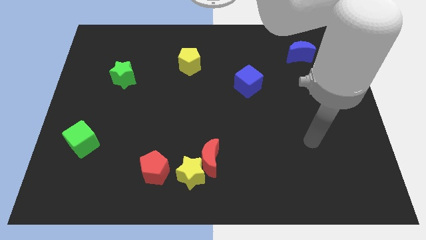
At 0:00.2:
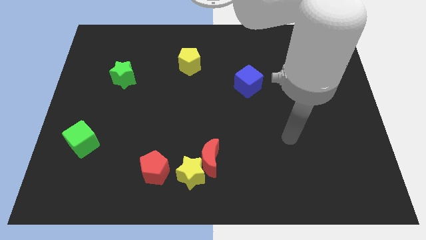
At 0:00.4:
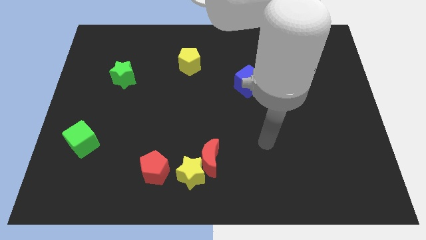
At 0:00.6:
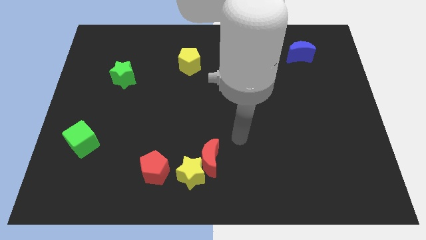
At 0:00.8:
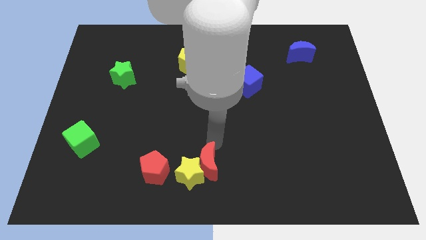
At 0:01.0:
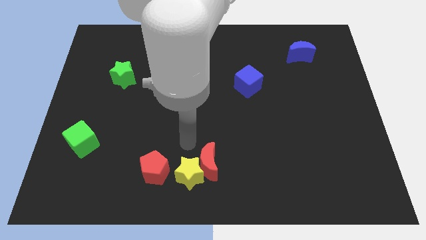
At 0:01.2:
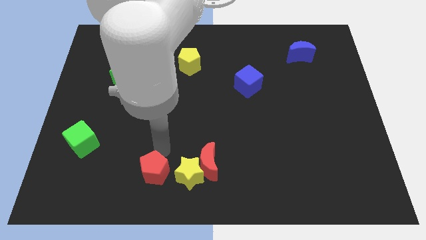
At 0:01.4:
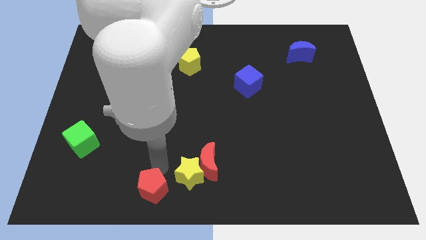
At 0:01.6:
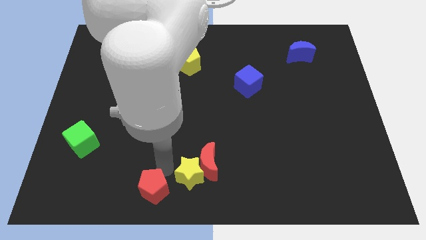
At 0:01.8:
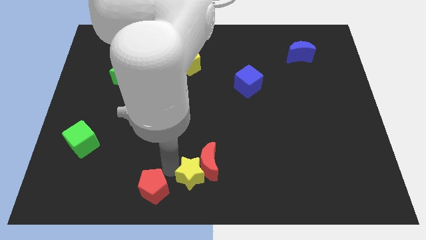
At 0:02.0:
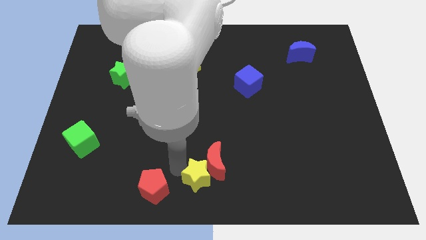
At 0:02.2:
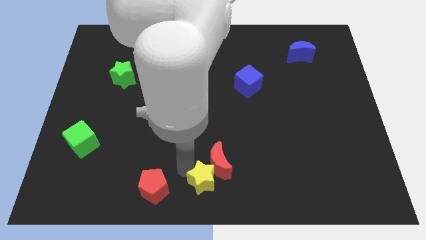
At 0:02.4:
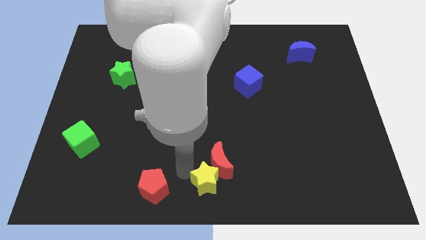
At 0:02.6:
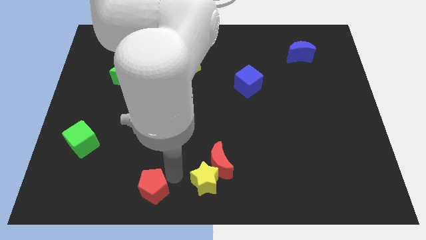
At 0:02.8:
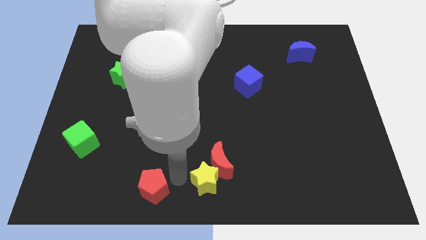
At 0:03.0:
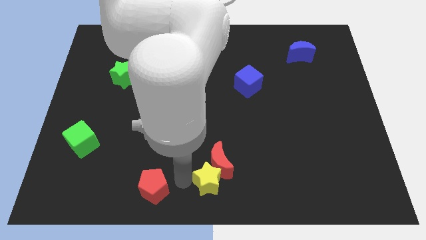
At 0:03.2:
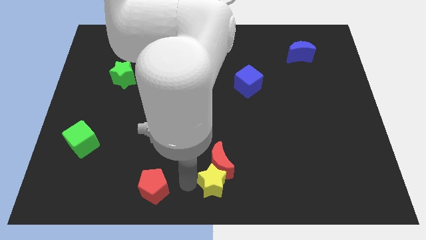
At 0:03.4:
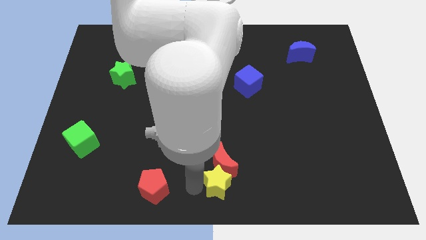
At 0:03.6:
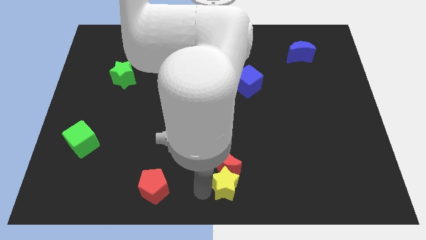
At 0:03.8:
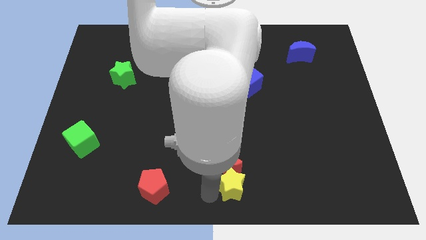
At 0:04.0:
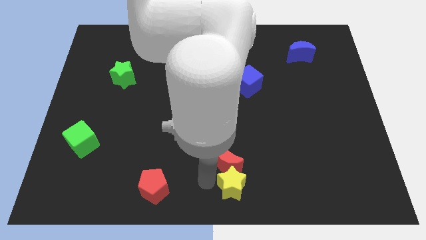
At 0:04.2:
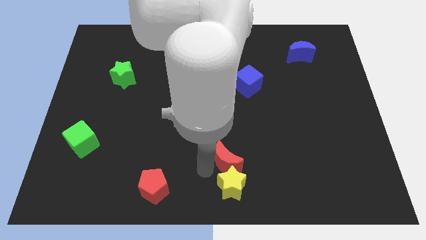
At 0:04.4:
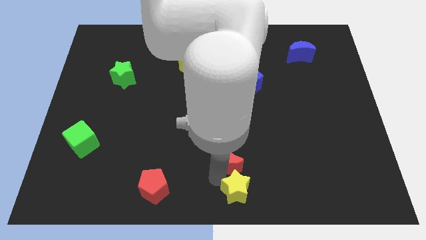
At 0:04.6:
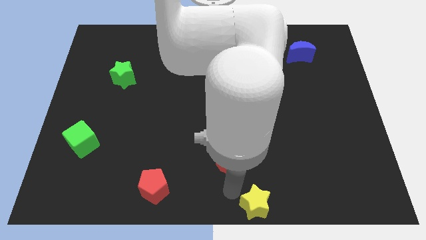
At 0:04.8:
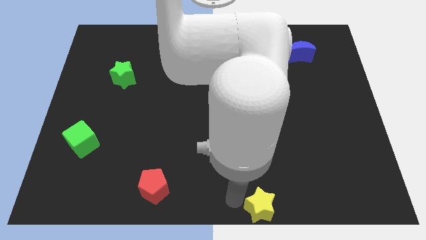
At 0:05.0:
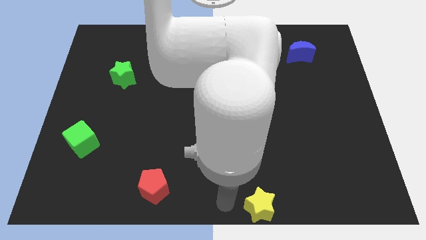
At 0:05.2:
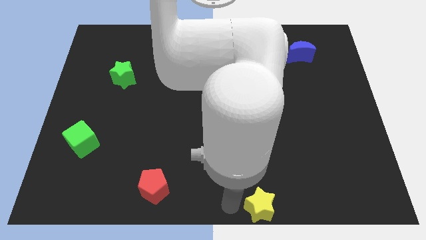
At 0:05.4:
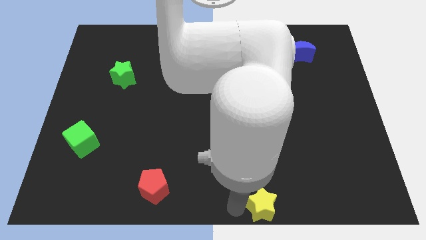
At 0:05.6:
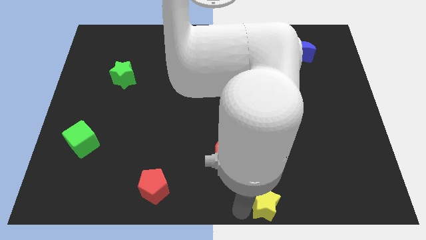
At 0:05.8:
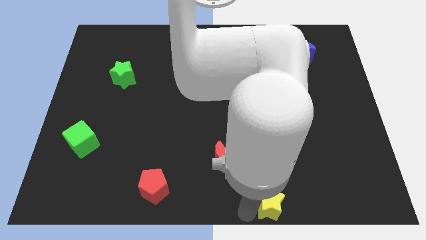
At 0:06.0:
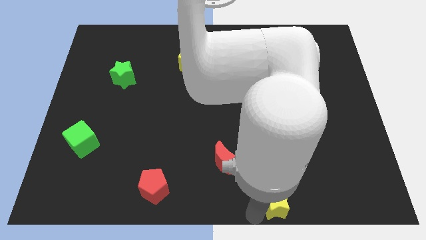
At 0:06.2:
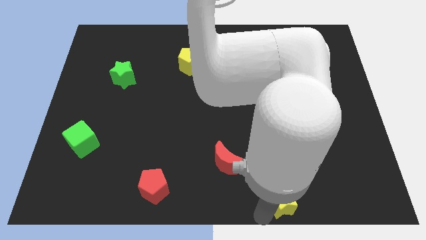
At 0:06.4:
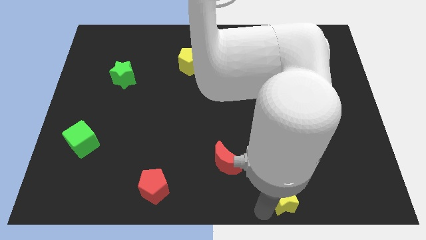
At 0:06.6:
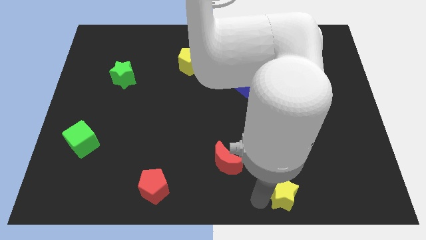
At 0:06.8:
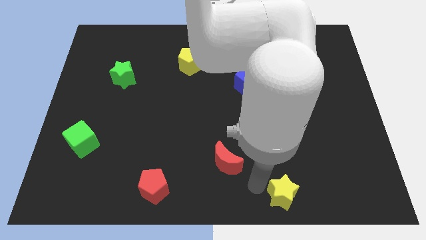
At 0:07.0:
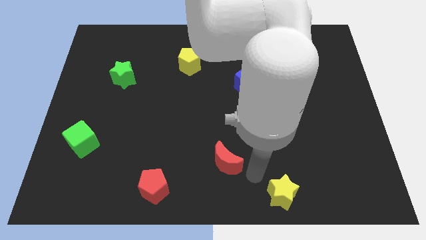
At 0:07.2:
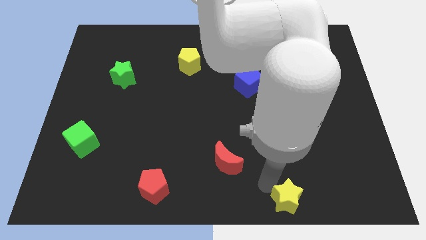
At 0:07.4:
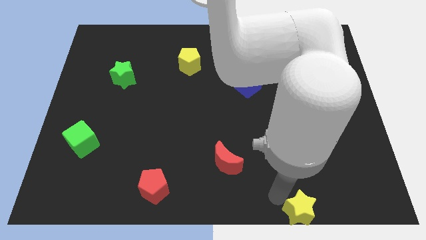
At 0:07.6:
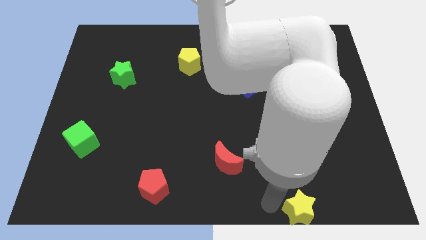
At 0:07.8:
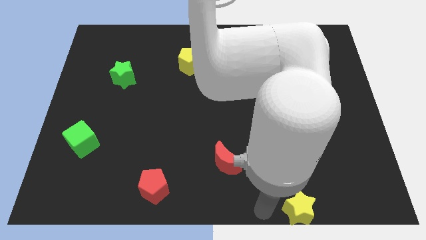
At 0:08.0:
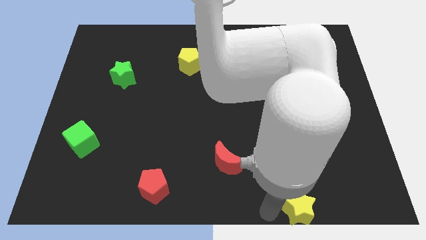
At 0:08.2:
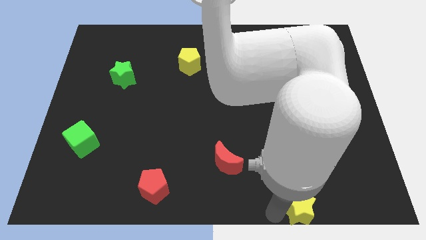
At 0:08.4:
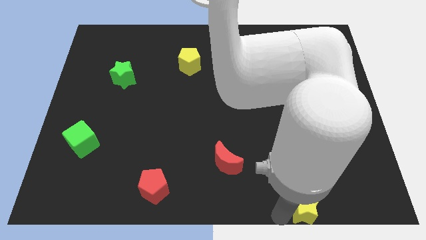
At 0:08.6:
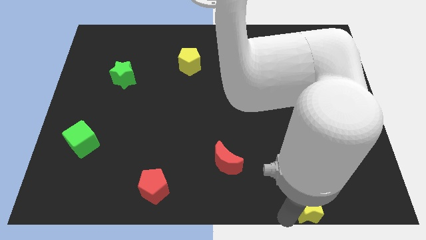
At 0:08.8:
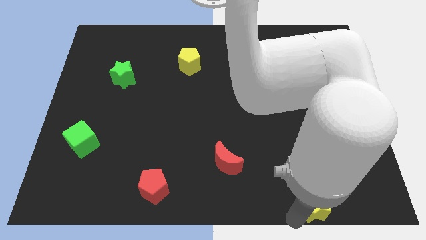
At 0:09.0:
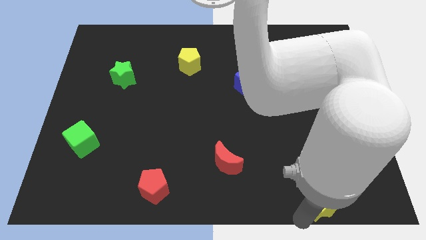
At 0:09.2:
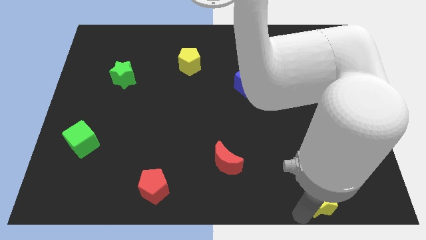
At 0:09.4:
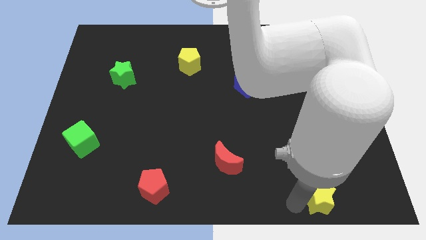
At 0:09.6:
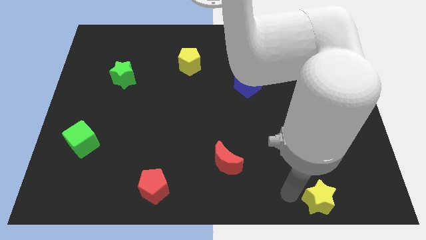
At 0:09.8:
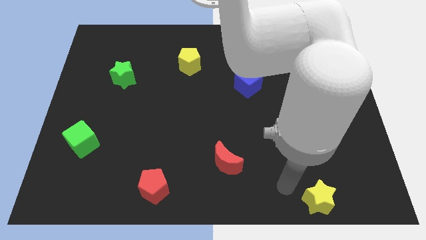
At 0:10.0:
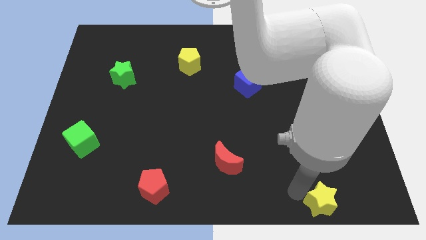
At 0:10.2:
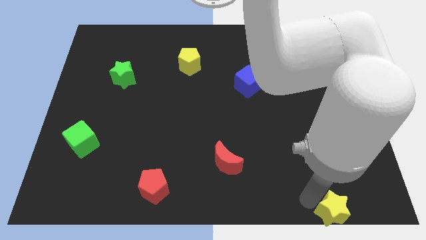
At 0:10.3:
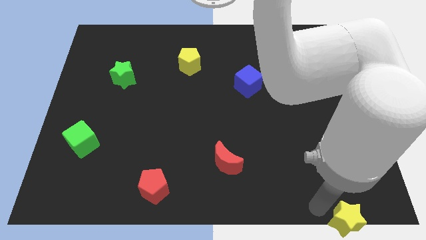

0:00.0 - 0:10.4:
put the yellow star to the bottom right

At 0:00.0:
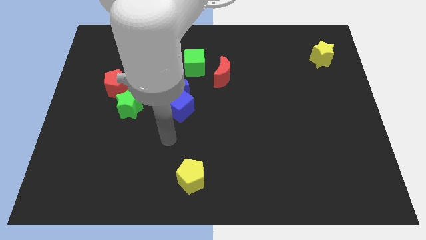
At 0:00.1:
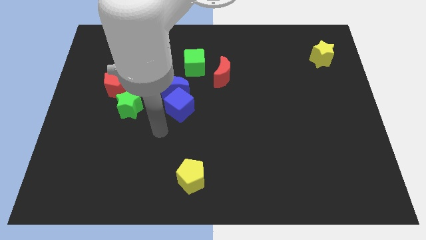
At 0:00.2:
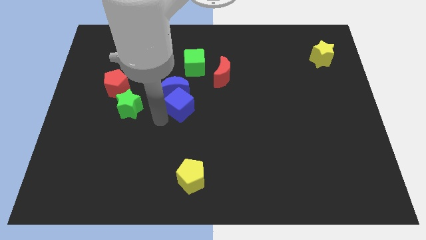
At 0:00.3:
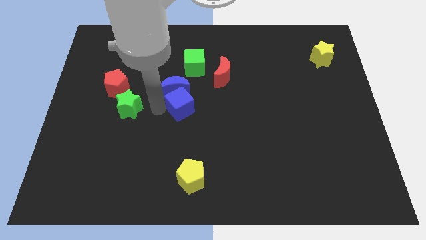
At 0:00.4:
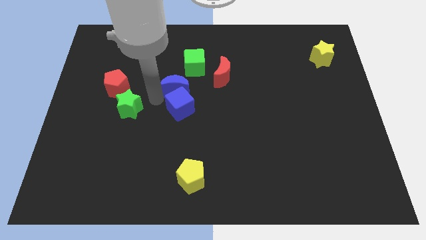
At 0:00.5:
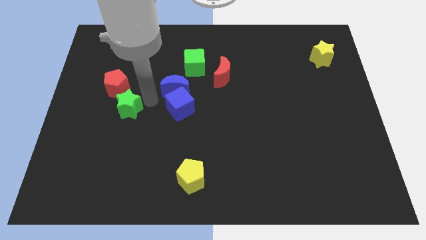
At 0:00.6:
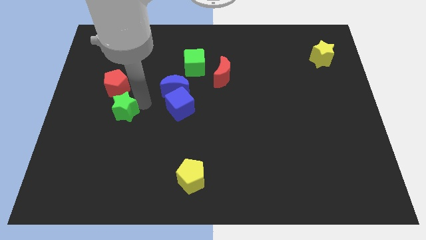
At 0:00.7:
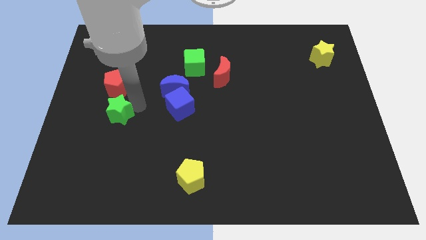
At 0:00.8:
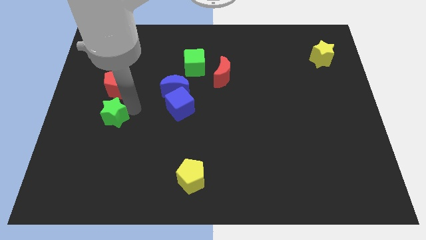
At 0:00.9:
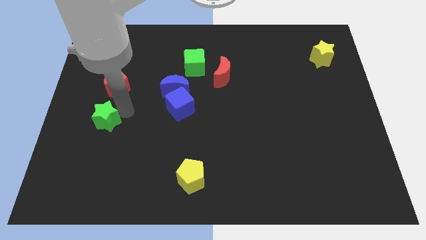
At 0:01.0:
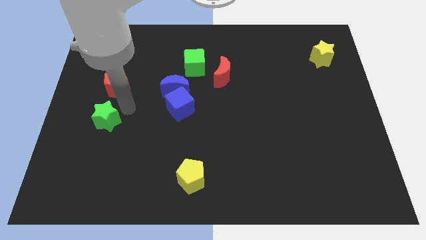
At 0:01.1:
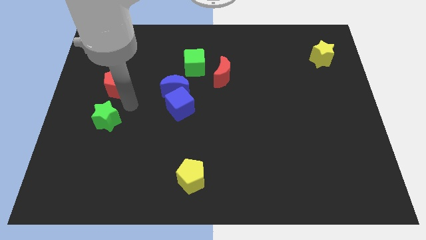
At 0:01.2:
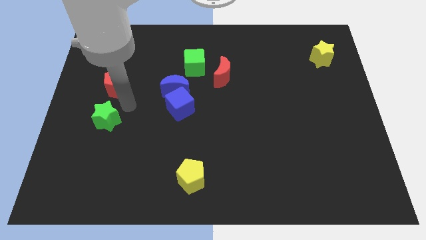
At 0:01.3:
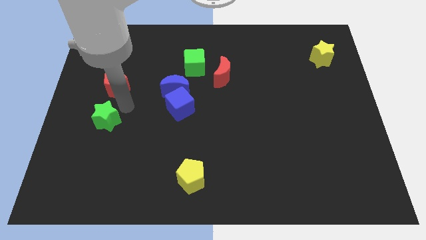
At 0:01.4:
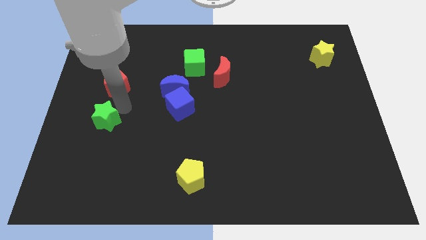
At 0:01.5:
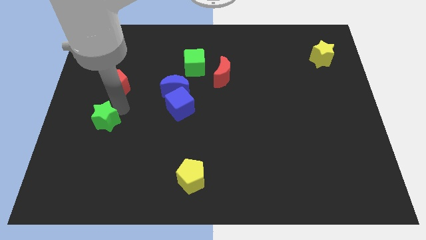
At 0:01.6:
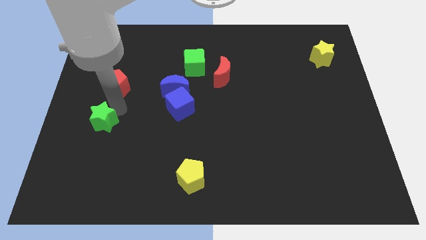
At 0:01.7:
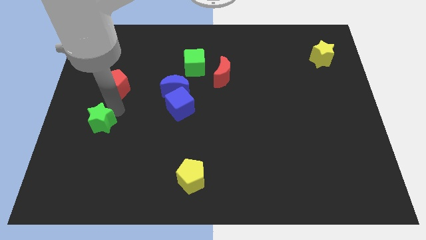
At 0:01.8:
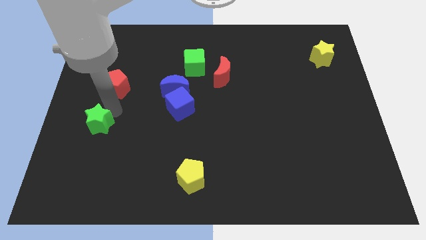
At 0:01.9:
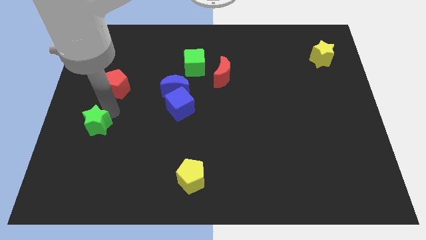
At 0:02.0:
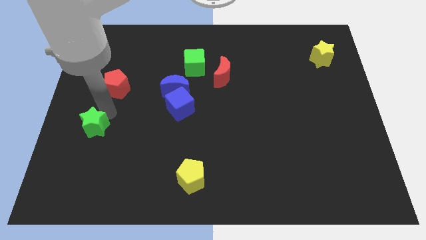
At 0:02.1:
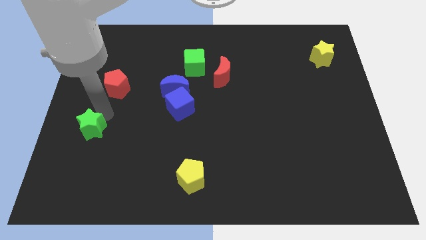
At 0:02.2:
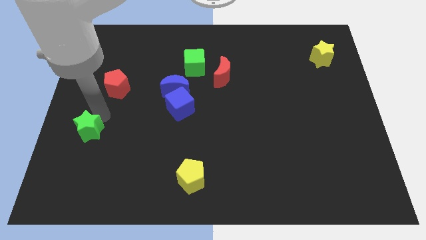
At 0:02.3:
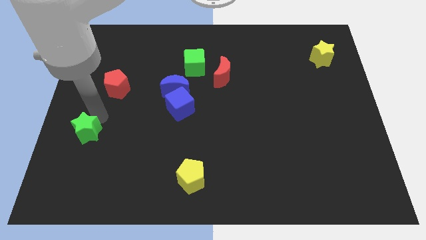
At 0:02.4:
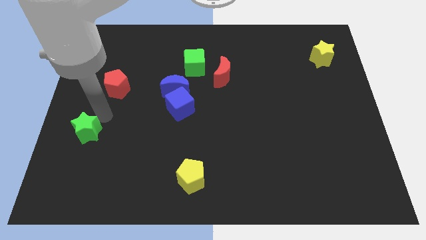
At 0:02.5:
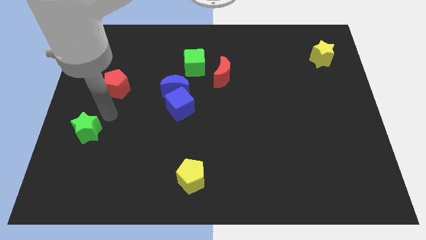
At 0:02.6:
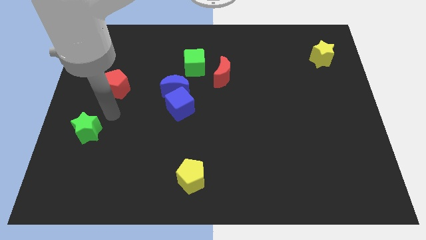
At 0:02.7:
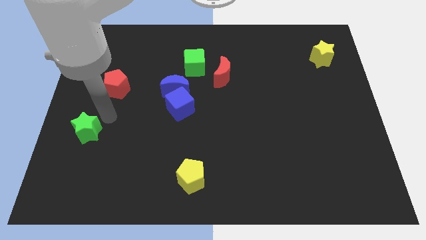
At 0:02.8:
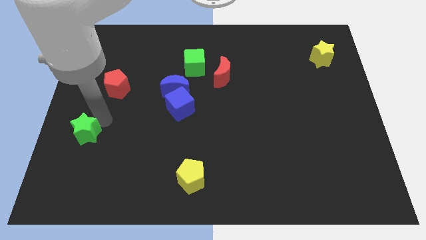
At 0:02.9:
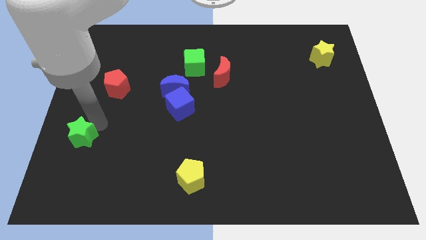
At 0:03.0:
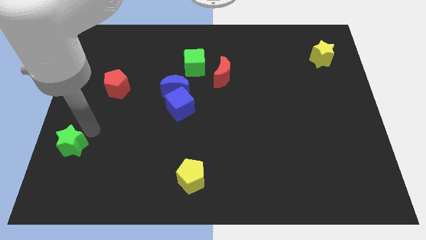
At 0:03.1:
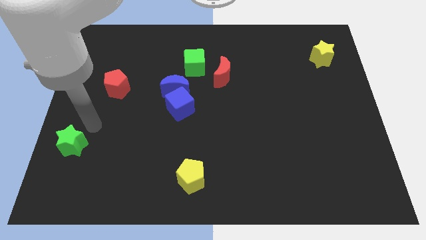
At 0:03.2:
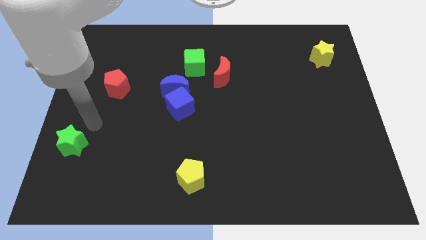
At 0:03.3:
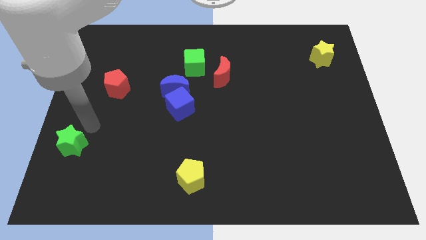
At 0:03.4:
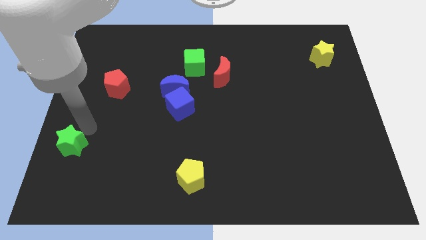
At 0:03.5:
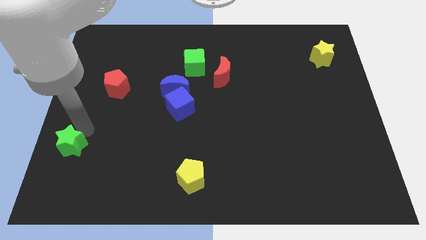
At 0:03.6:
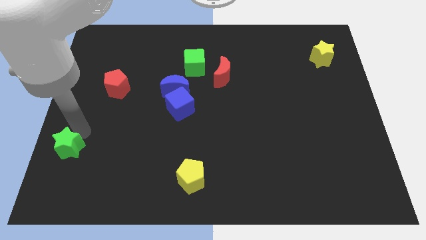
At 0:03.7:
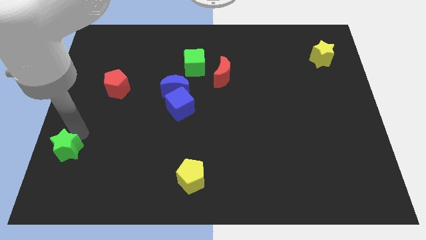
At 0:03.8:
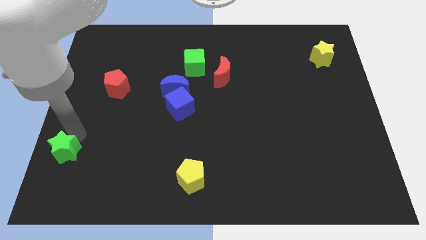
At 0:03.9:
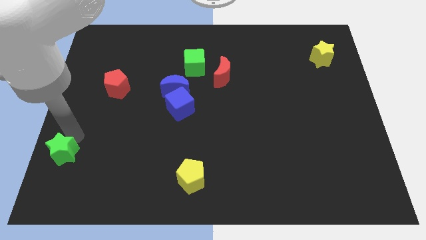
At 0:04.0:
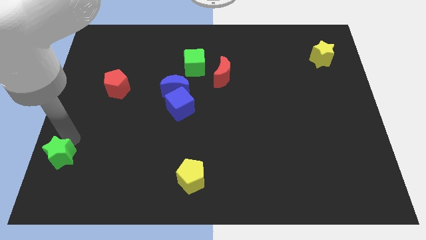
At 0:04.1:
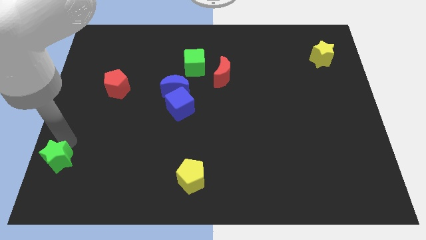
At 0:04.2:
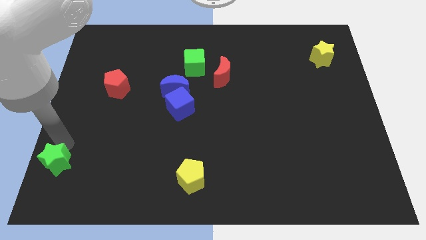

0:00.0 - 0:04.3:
slide the green star to the bottom left corner
